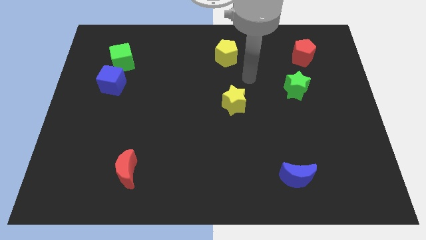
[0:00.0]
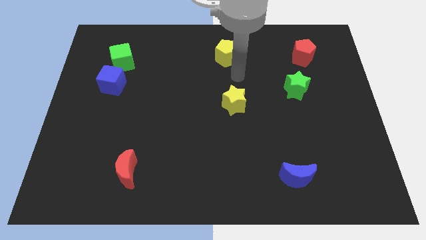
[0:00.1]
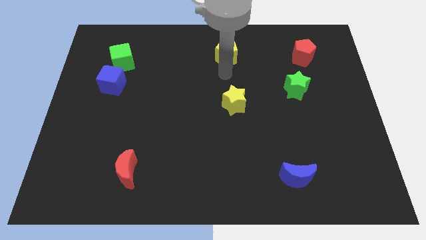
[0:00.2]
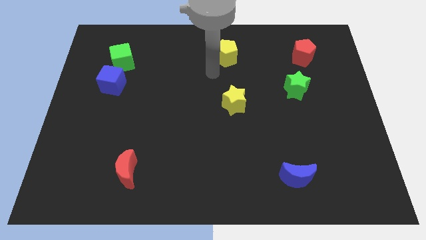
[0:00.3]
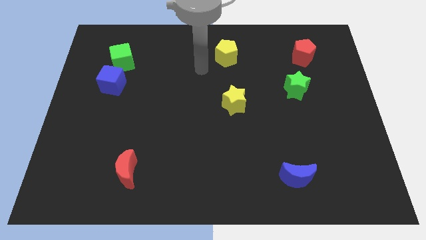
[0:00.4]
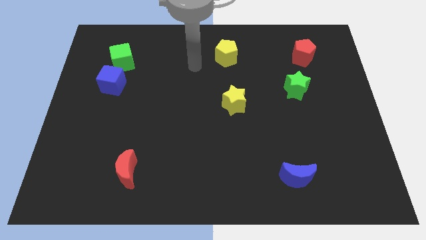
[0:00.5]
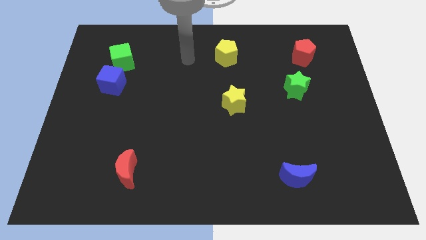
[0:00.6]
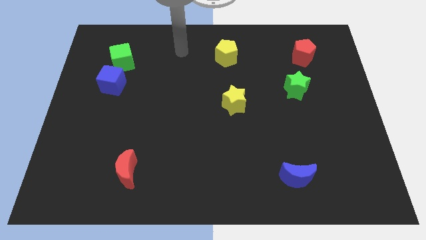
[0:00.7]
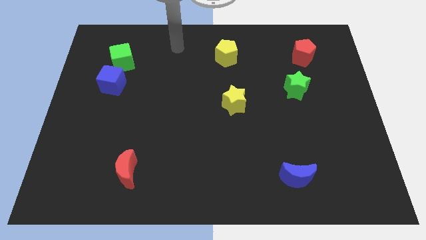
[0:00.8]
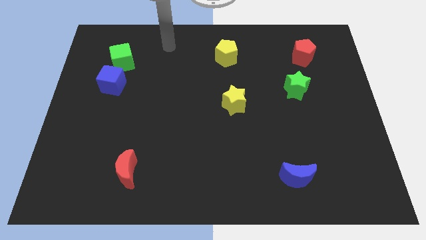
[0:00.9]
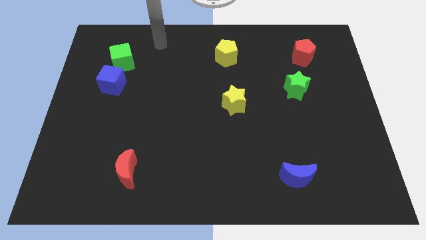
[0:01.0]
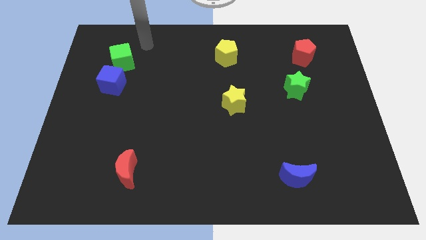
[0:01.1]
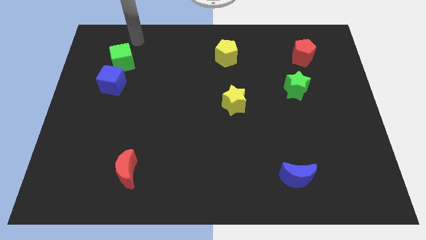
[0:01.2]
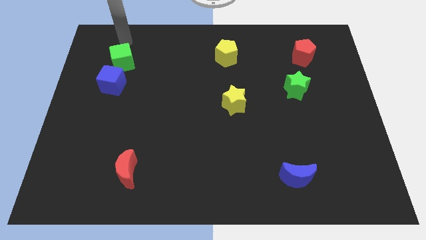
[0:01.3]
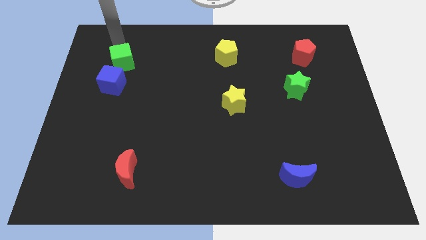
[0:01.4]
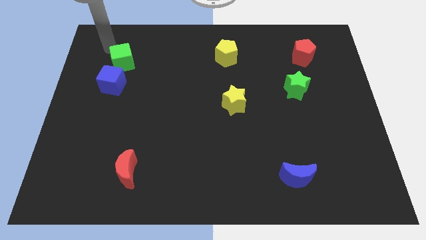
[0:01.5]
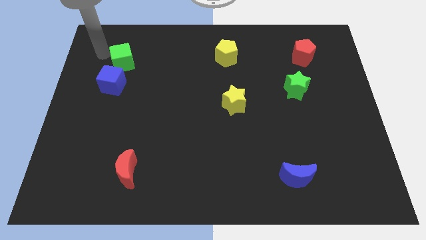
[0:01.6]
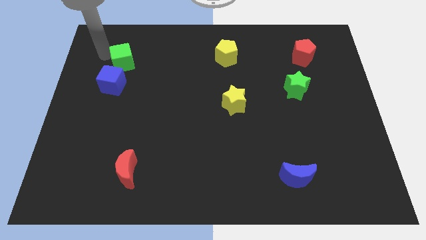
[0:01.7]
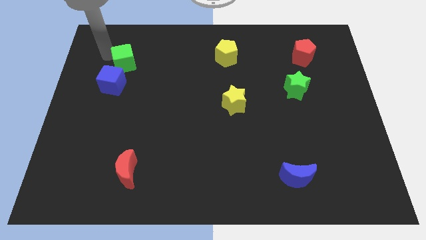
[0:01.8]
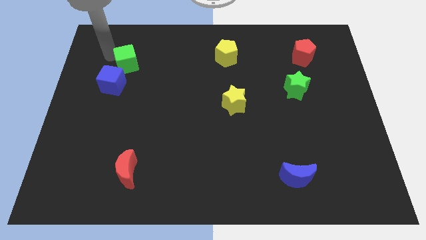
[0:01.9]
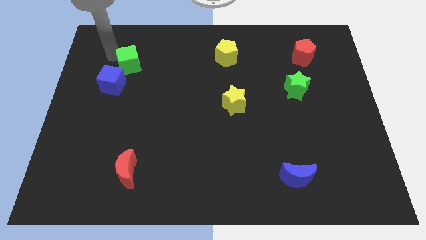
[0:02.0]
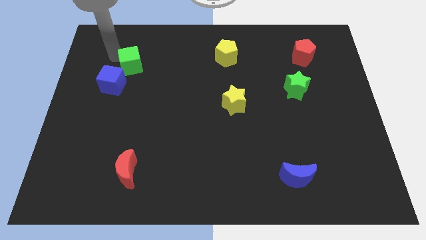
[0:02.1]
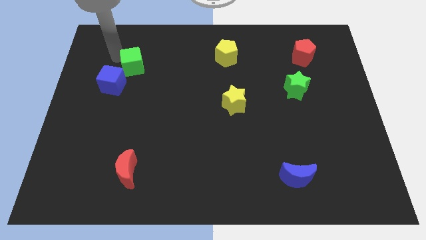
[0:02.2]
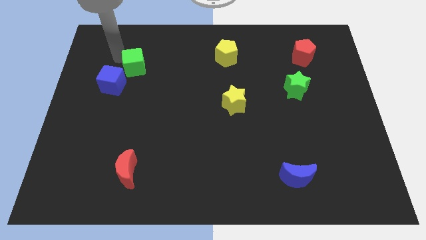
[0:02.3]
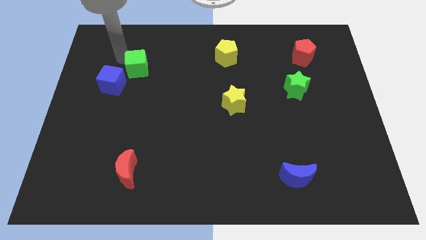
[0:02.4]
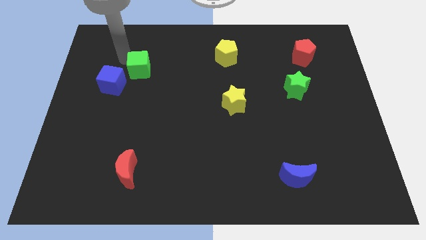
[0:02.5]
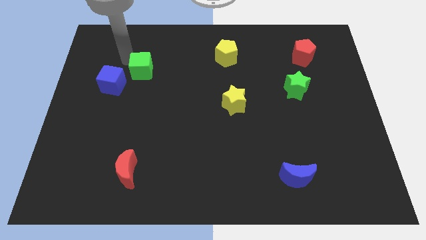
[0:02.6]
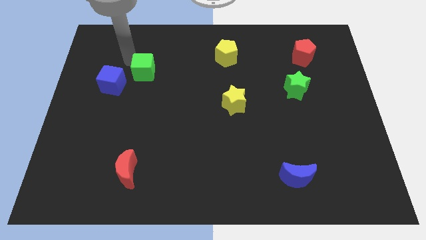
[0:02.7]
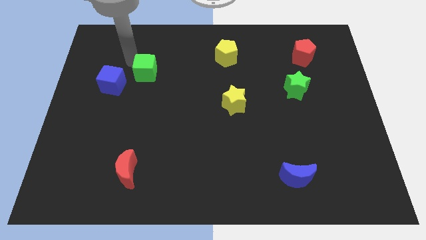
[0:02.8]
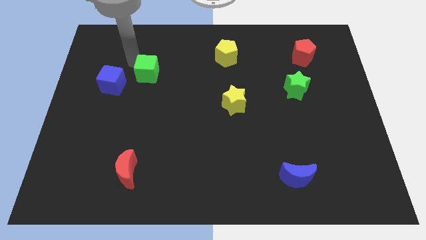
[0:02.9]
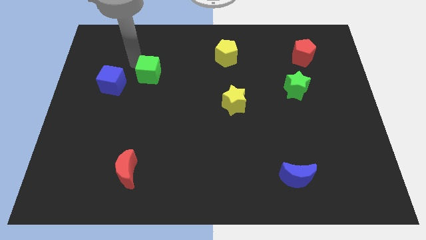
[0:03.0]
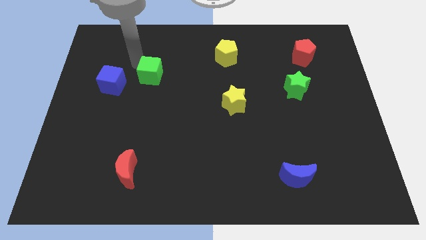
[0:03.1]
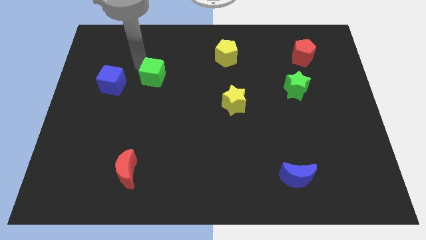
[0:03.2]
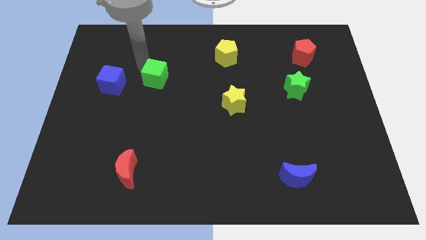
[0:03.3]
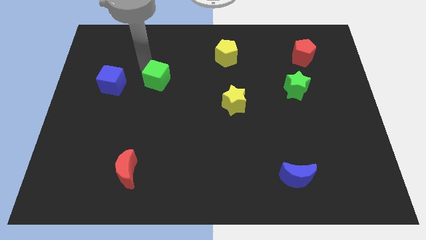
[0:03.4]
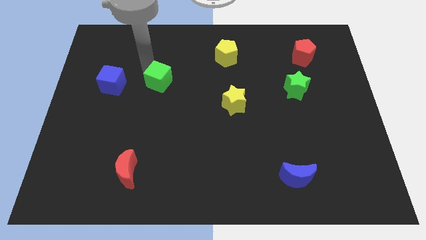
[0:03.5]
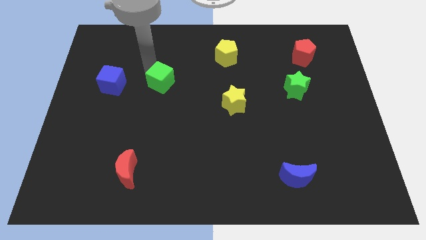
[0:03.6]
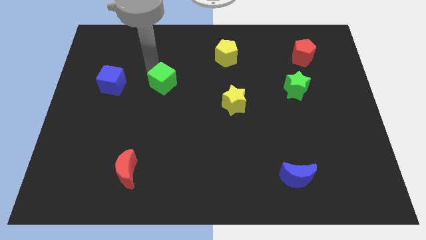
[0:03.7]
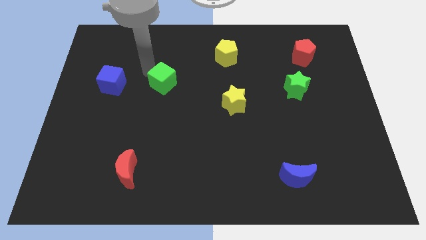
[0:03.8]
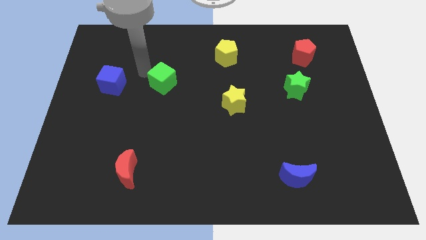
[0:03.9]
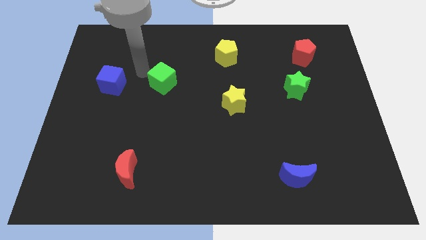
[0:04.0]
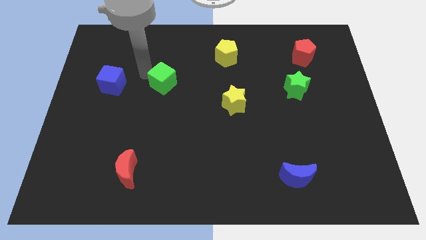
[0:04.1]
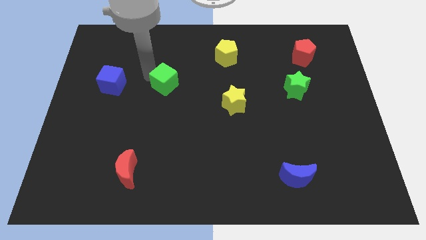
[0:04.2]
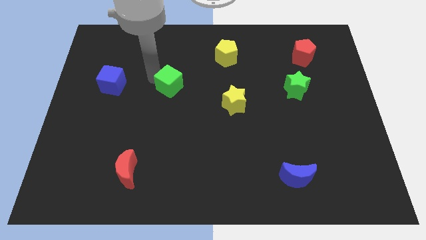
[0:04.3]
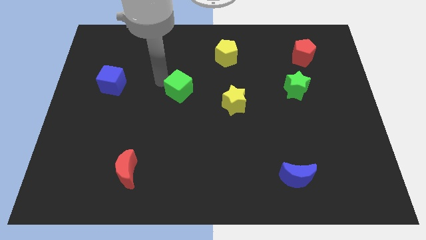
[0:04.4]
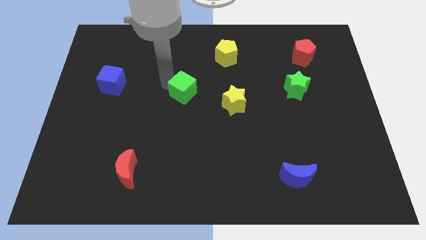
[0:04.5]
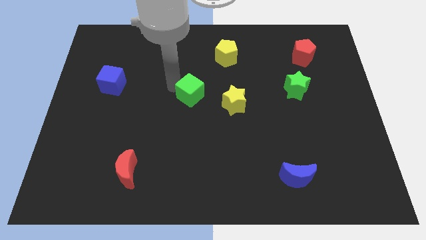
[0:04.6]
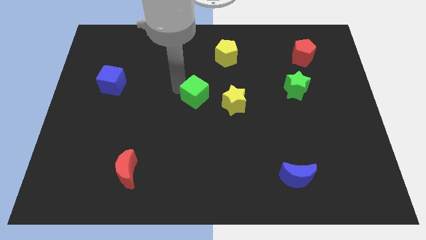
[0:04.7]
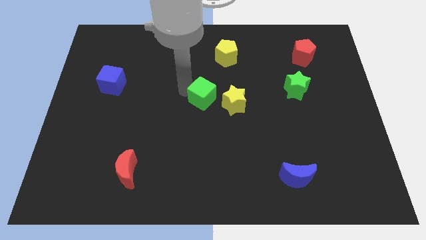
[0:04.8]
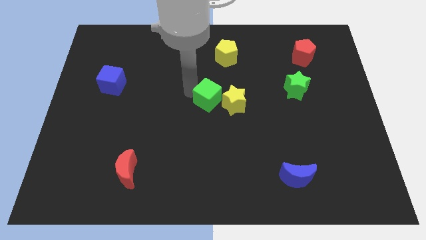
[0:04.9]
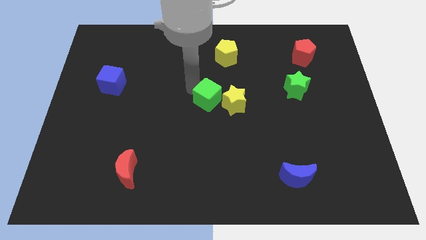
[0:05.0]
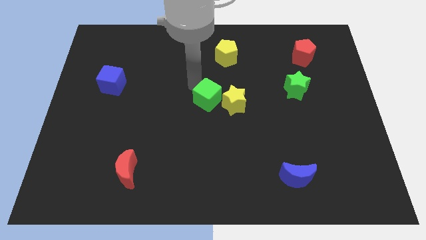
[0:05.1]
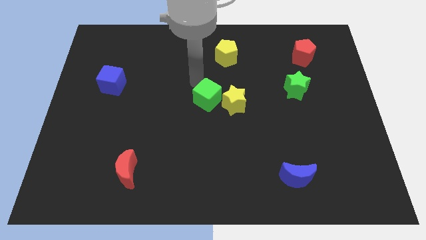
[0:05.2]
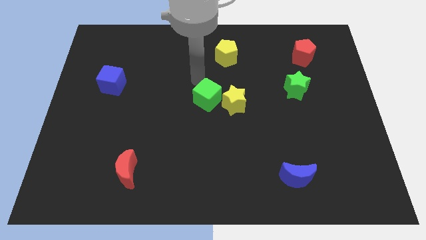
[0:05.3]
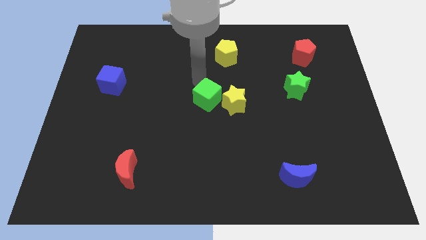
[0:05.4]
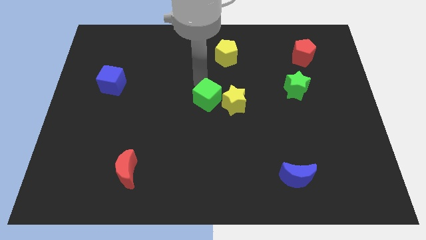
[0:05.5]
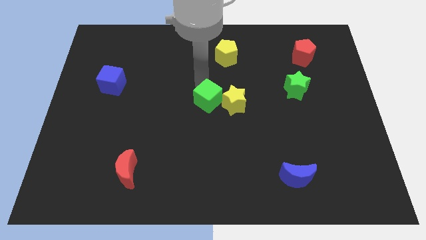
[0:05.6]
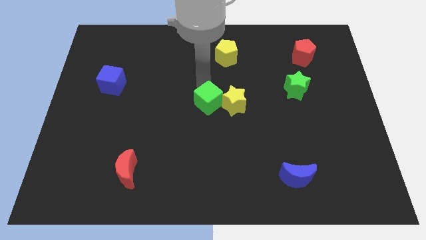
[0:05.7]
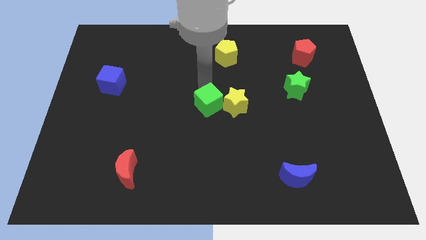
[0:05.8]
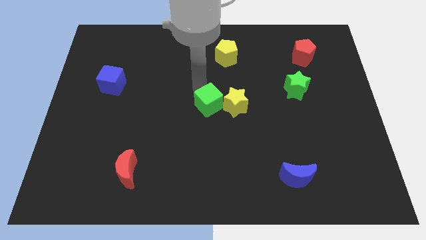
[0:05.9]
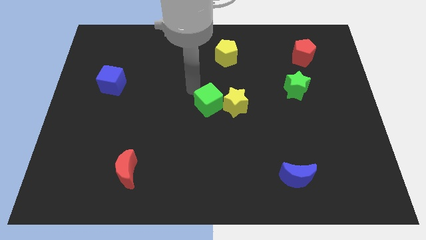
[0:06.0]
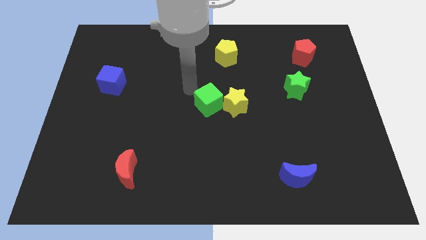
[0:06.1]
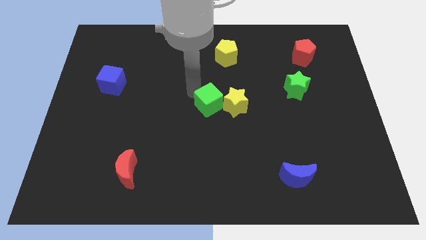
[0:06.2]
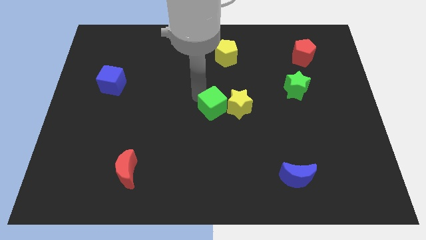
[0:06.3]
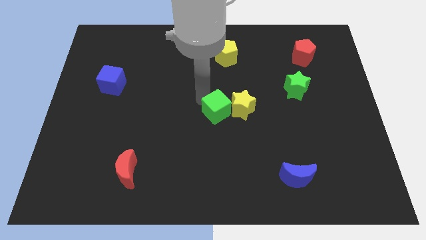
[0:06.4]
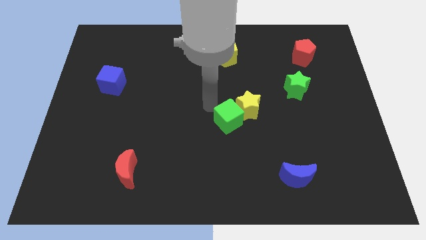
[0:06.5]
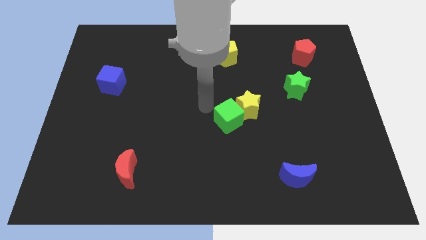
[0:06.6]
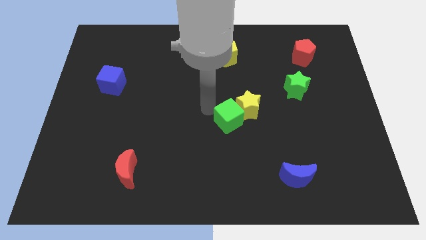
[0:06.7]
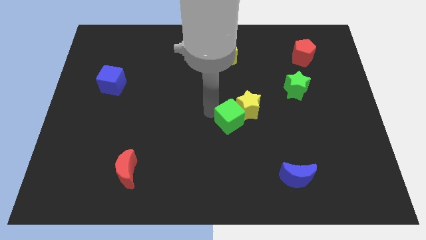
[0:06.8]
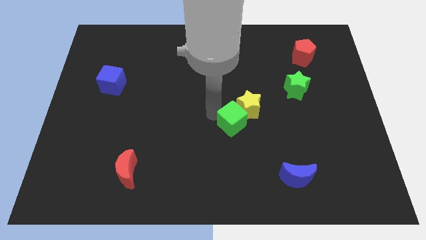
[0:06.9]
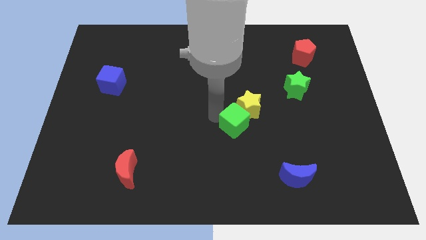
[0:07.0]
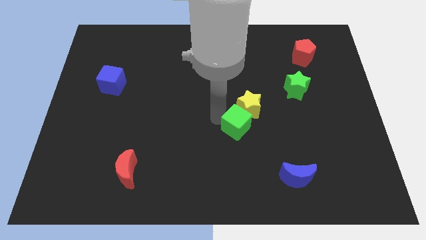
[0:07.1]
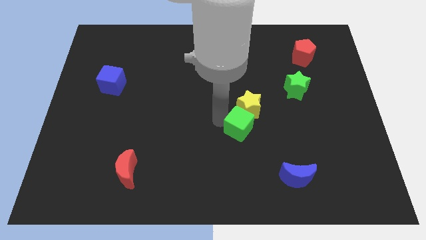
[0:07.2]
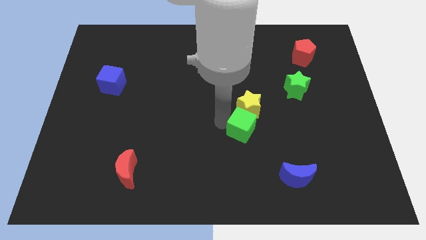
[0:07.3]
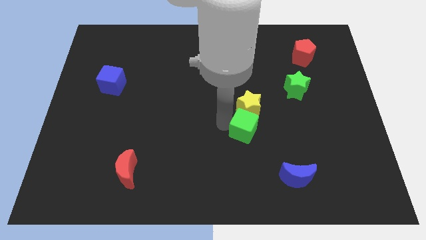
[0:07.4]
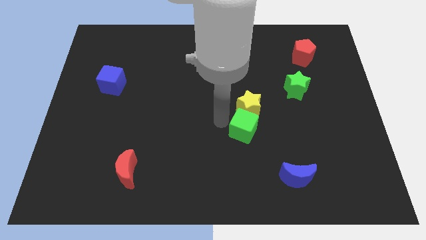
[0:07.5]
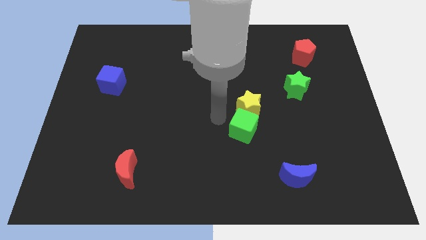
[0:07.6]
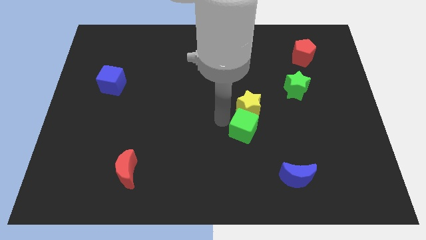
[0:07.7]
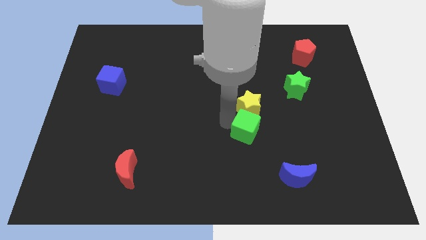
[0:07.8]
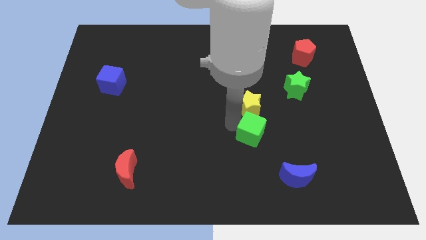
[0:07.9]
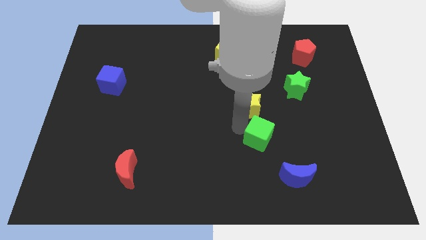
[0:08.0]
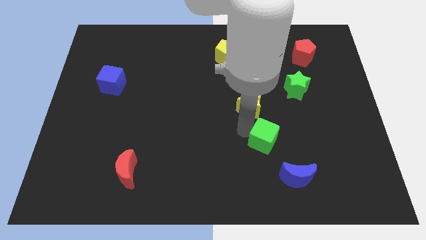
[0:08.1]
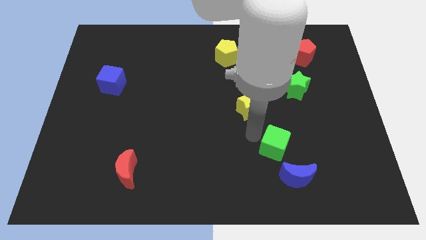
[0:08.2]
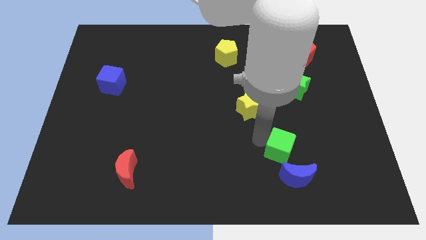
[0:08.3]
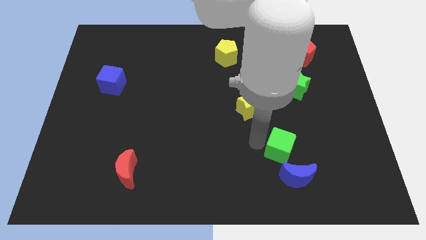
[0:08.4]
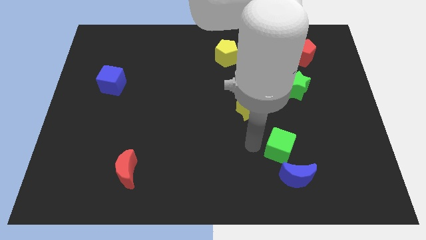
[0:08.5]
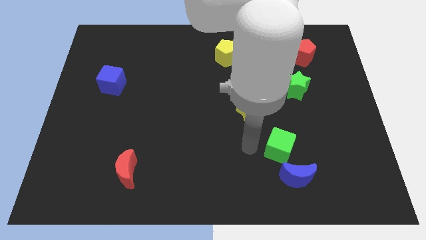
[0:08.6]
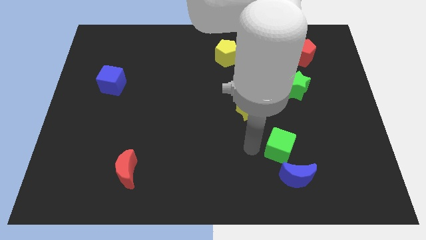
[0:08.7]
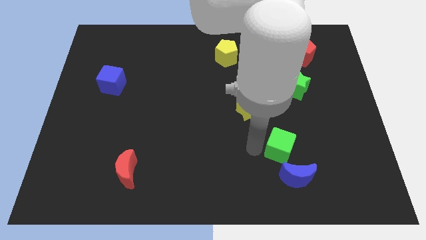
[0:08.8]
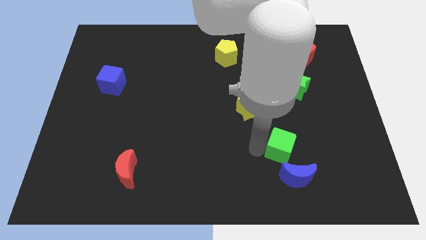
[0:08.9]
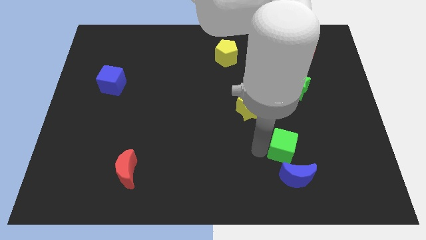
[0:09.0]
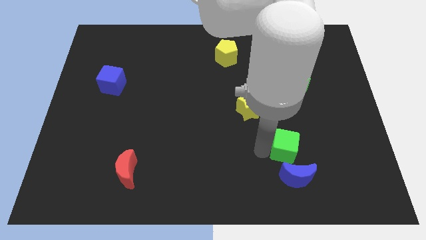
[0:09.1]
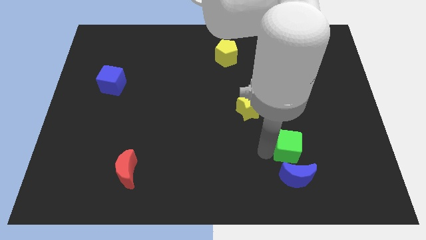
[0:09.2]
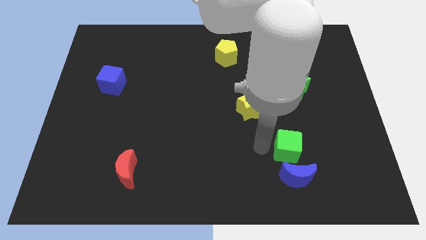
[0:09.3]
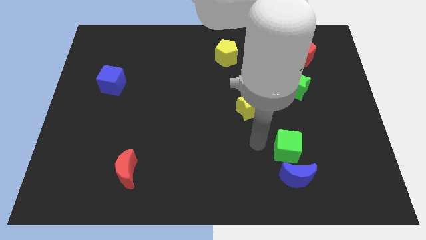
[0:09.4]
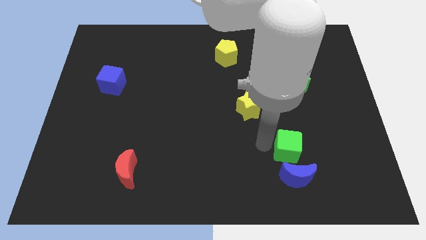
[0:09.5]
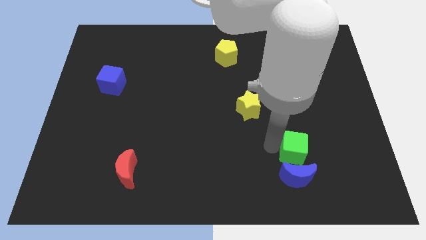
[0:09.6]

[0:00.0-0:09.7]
put the green cube diagonally up and to the right of the blue moon
